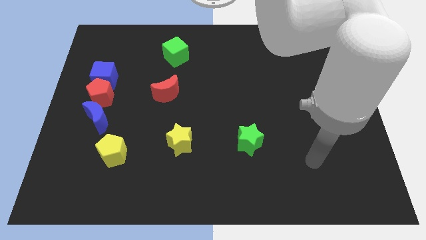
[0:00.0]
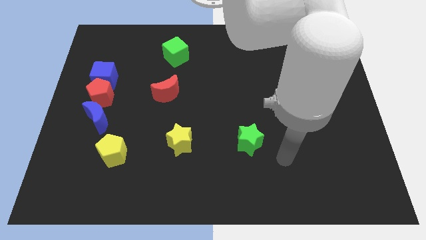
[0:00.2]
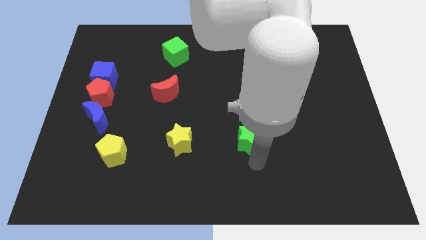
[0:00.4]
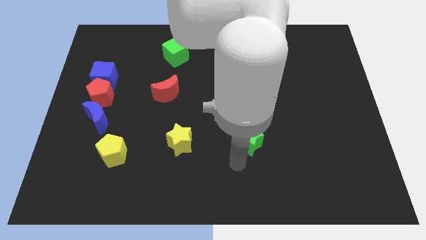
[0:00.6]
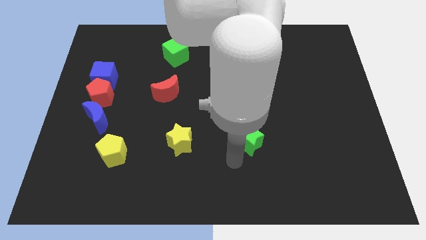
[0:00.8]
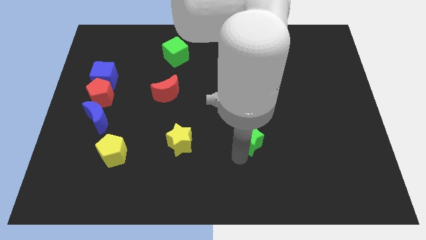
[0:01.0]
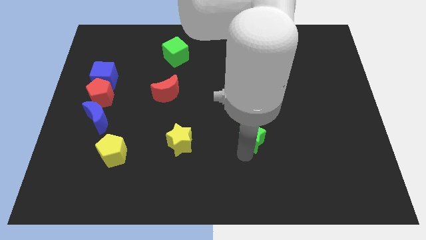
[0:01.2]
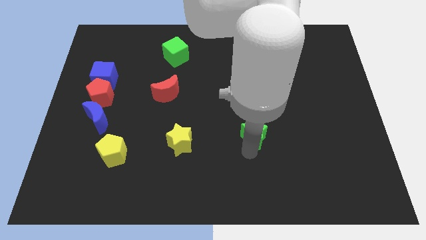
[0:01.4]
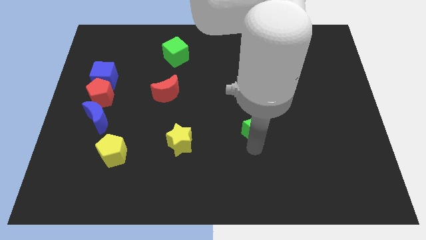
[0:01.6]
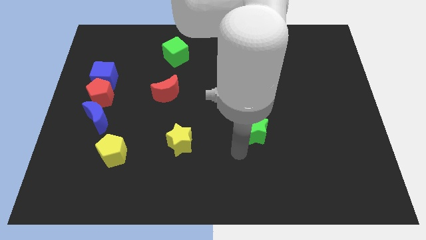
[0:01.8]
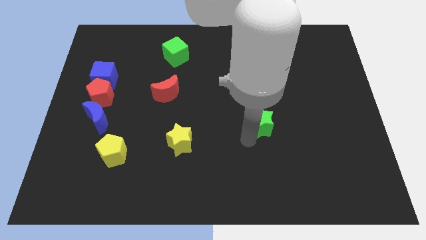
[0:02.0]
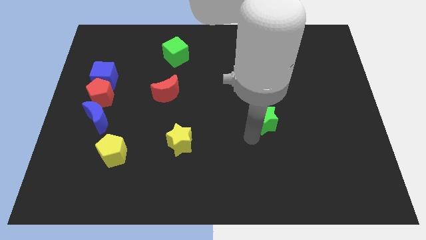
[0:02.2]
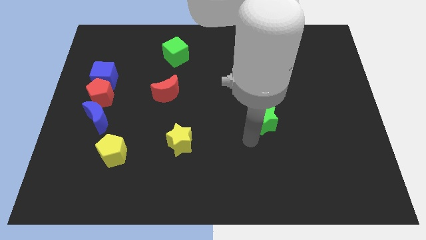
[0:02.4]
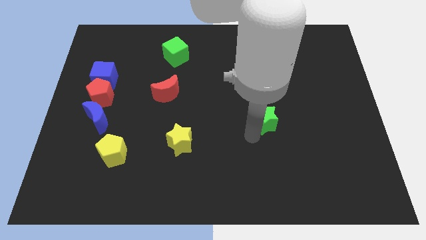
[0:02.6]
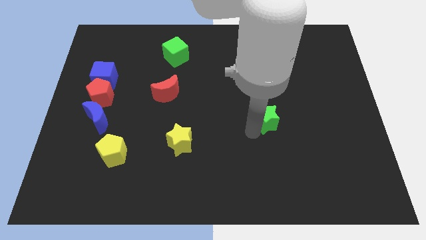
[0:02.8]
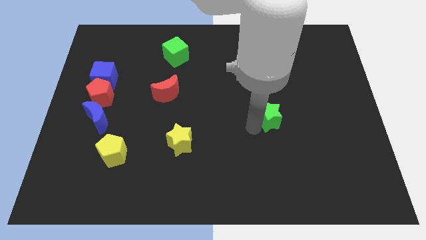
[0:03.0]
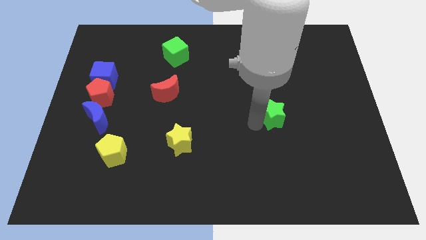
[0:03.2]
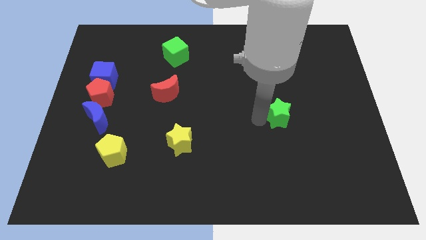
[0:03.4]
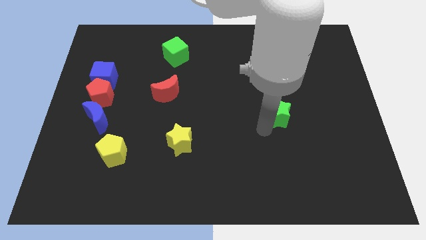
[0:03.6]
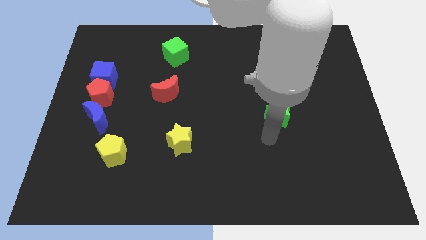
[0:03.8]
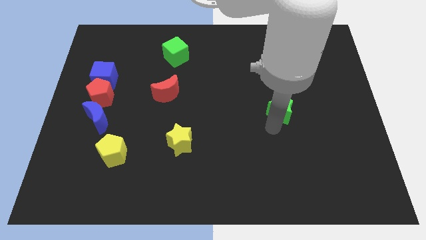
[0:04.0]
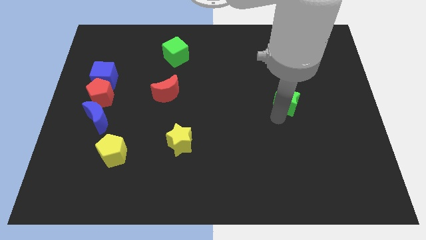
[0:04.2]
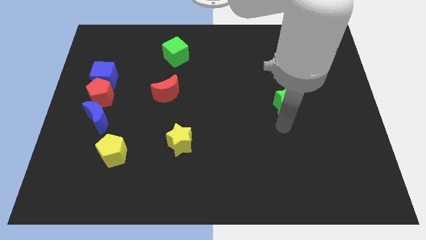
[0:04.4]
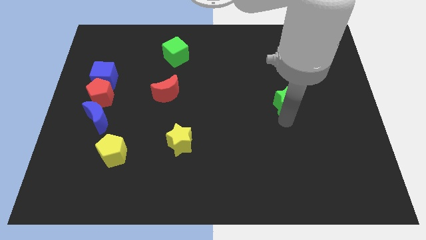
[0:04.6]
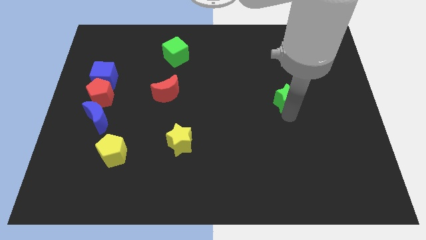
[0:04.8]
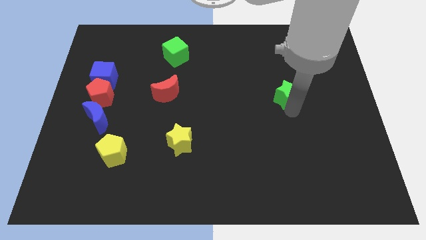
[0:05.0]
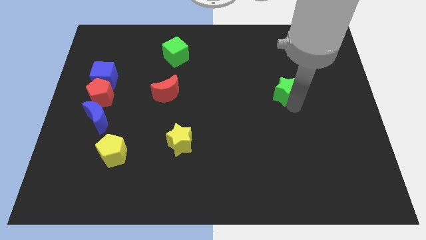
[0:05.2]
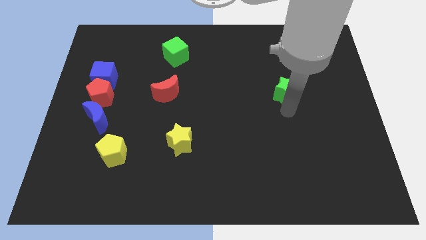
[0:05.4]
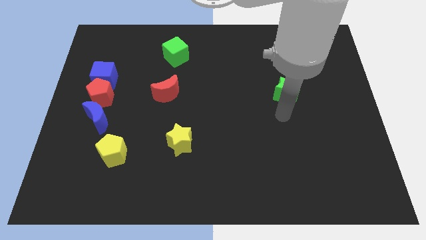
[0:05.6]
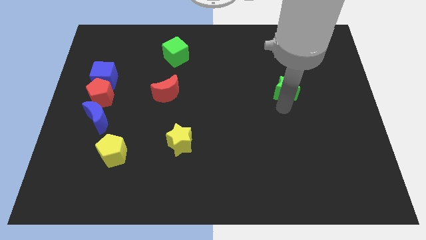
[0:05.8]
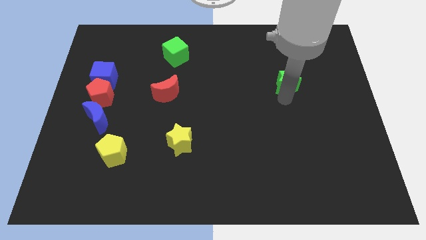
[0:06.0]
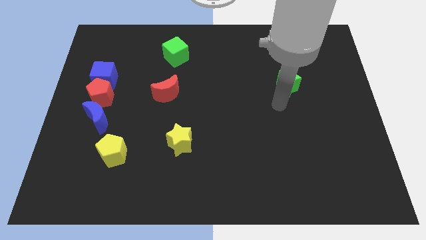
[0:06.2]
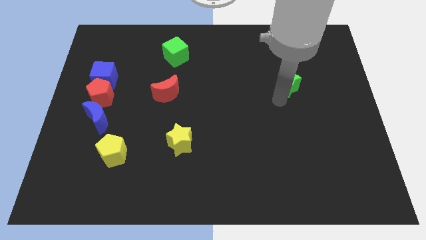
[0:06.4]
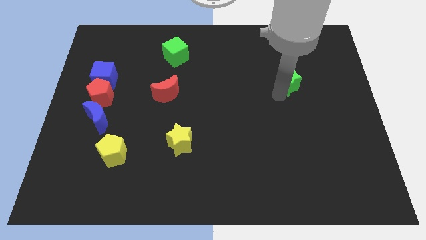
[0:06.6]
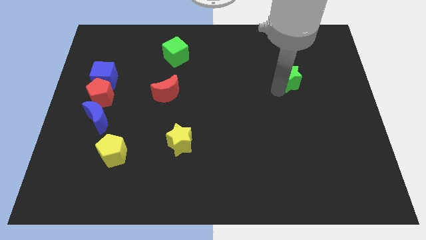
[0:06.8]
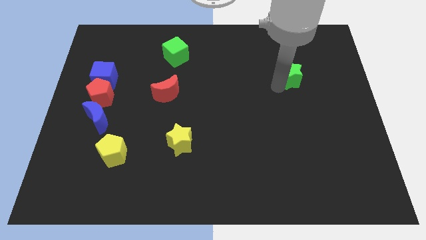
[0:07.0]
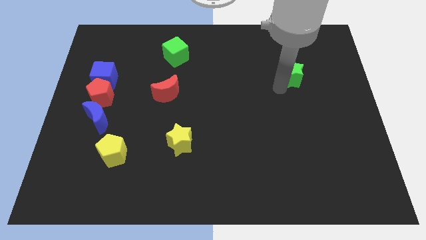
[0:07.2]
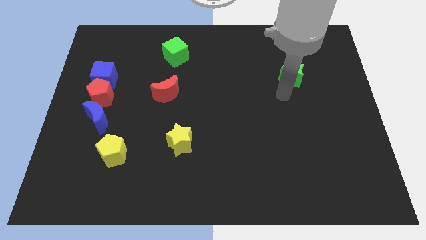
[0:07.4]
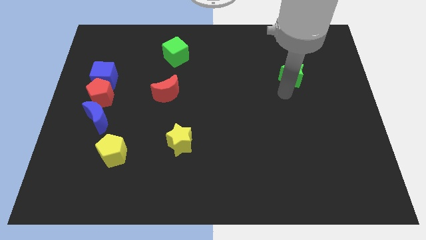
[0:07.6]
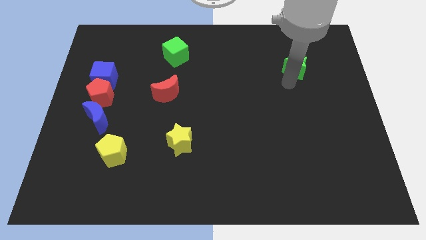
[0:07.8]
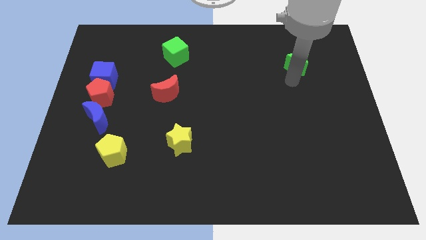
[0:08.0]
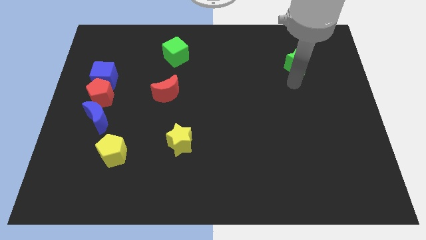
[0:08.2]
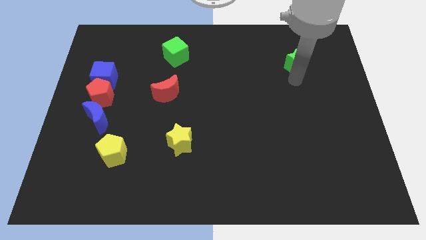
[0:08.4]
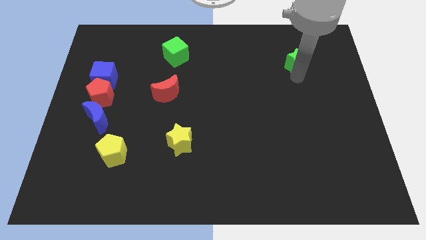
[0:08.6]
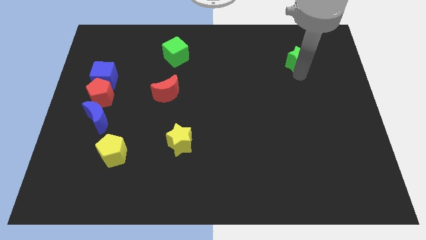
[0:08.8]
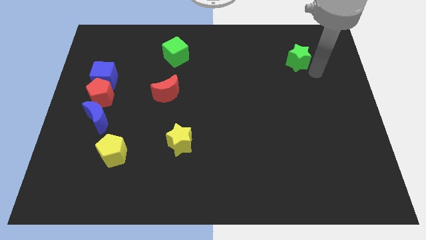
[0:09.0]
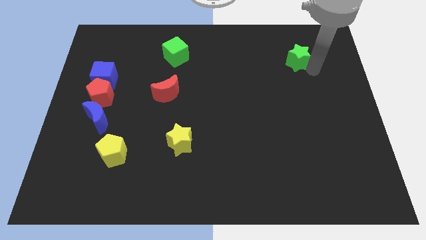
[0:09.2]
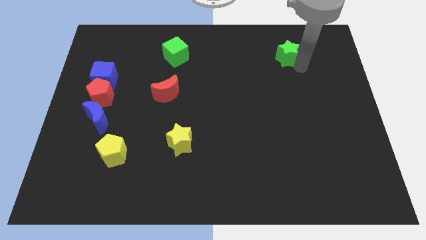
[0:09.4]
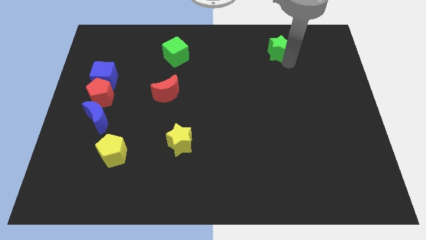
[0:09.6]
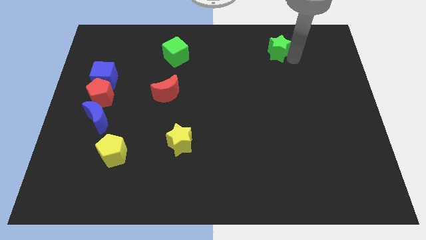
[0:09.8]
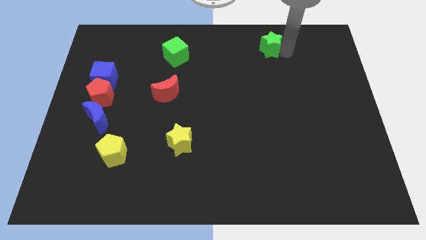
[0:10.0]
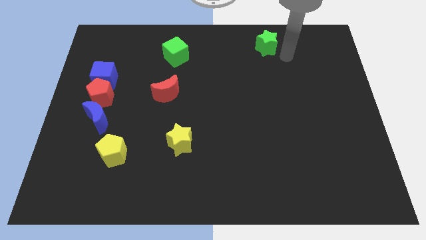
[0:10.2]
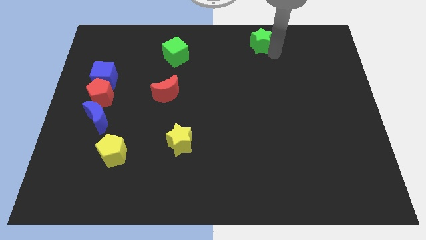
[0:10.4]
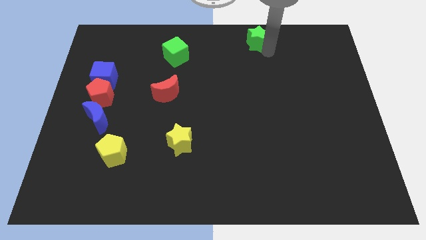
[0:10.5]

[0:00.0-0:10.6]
put the green star to the top
